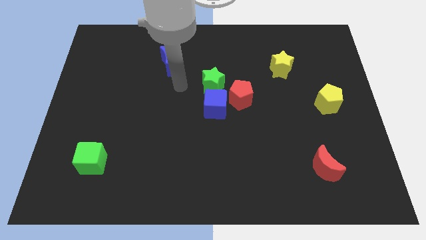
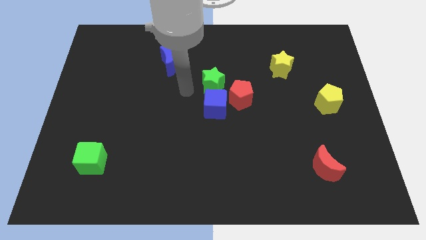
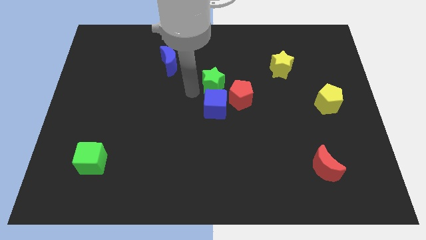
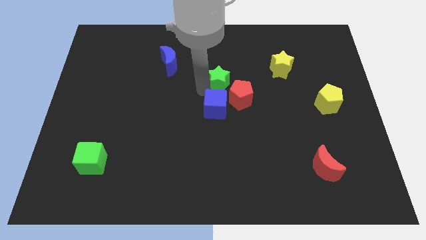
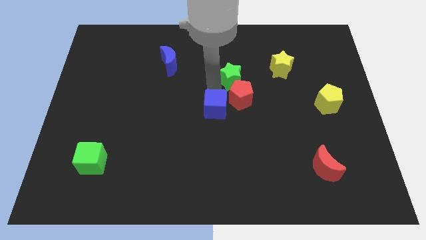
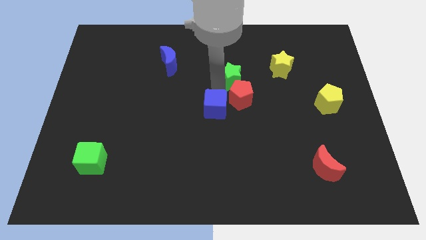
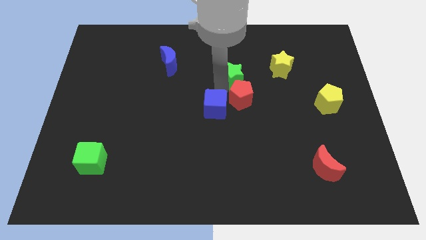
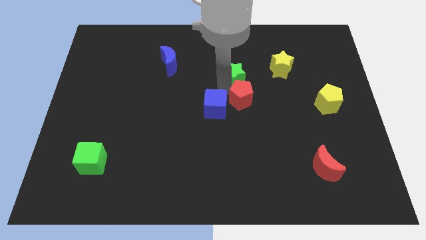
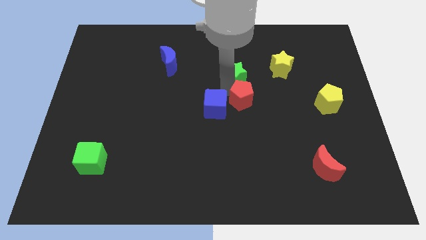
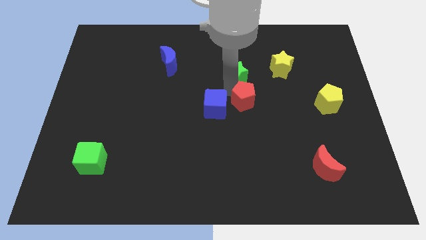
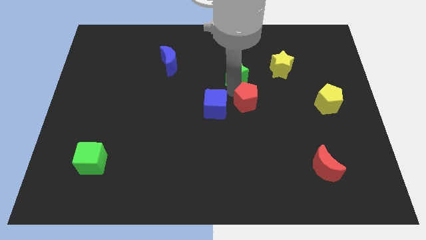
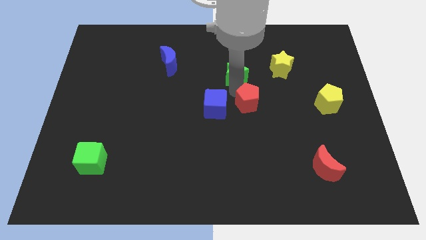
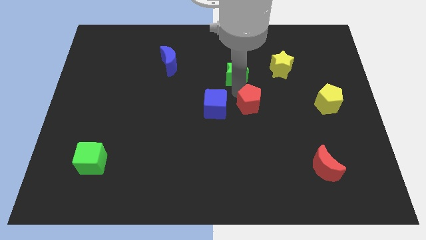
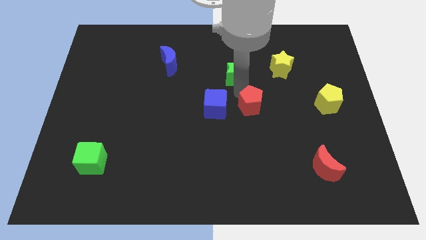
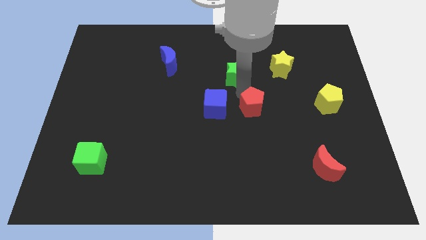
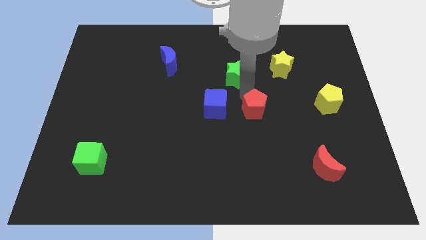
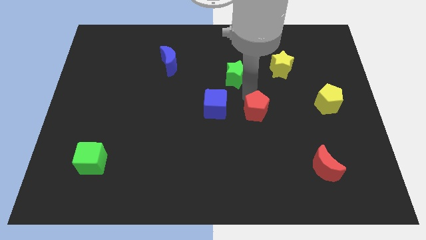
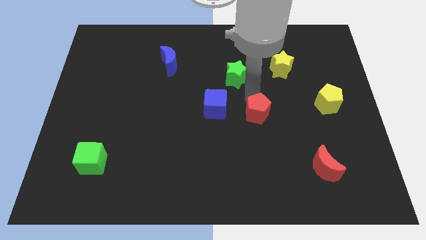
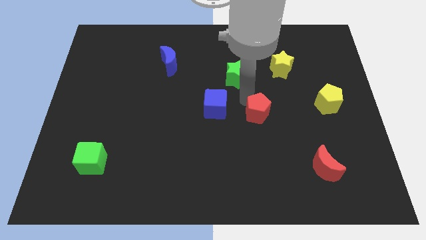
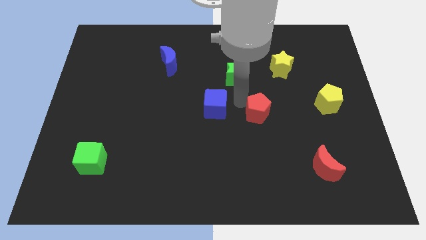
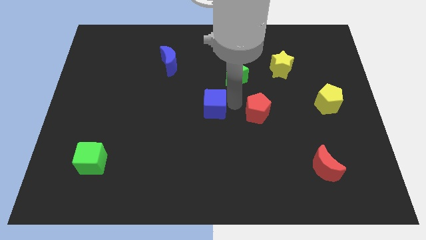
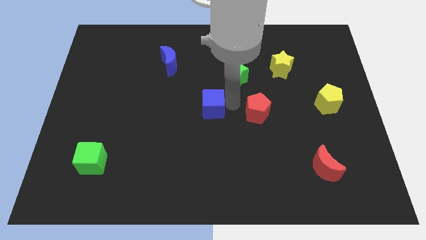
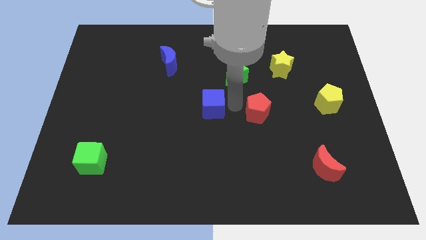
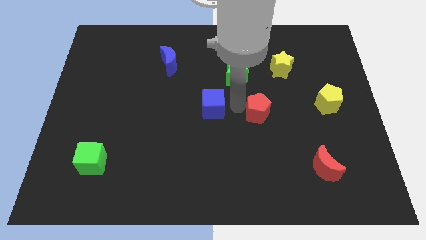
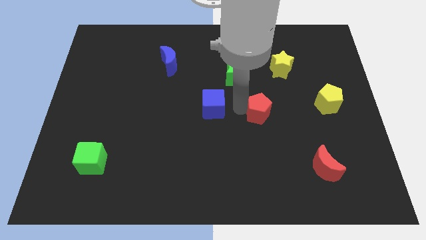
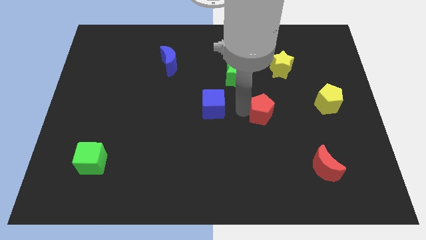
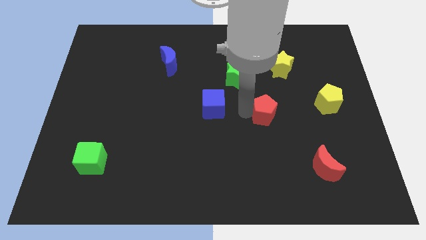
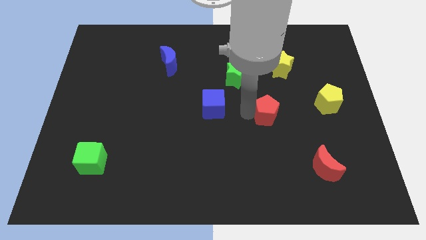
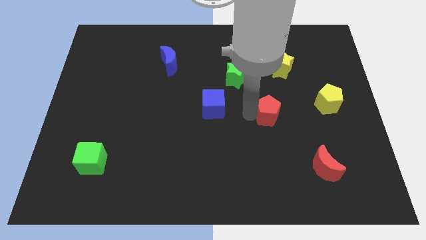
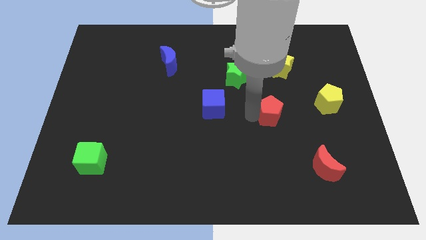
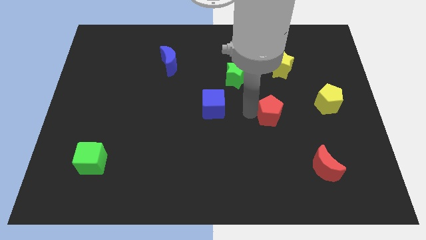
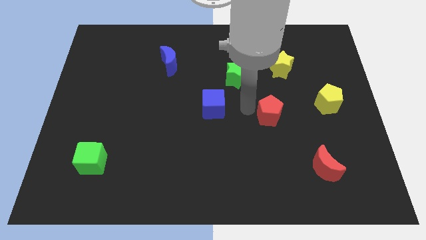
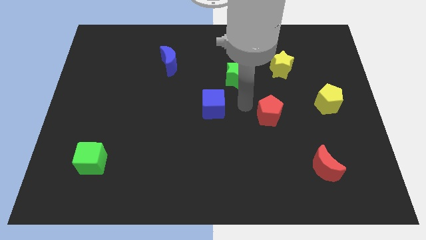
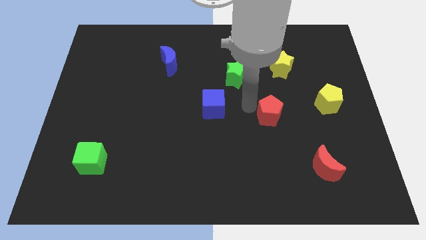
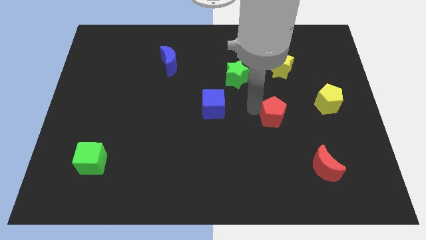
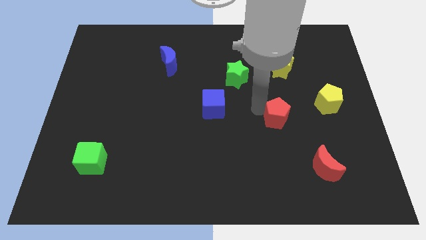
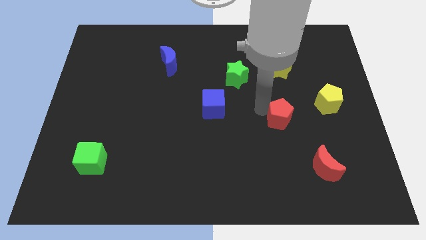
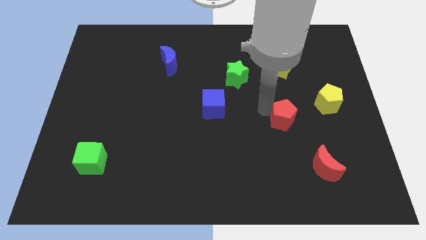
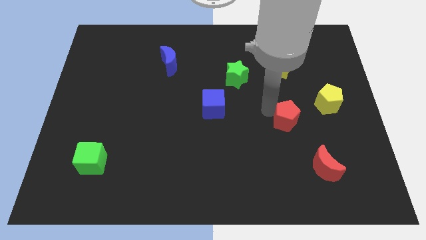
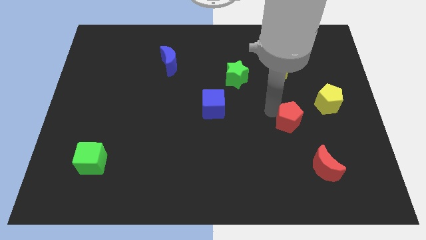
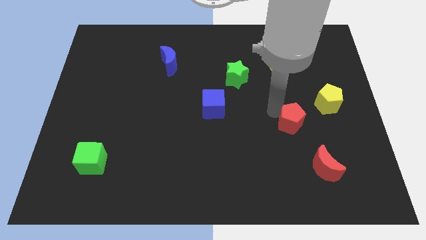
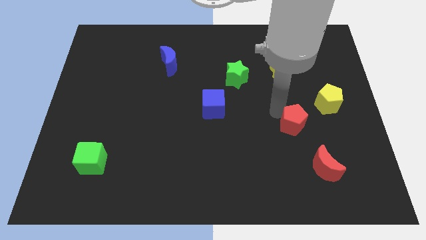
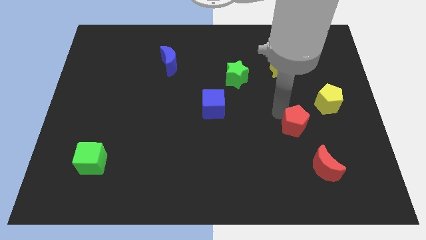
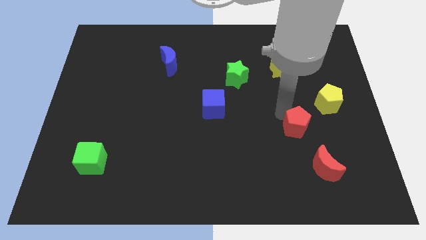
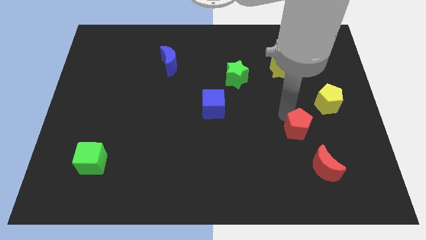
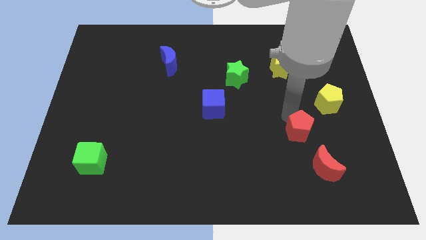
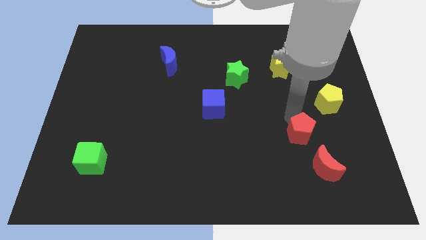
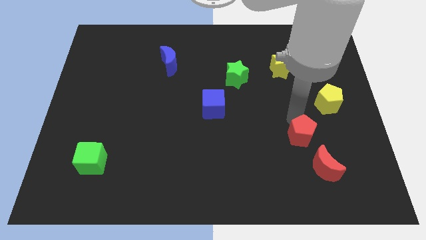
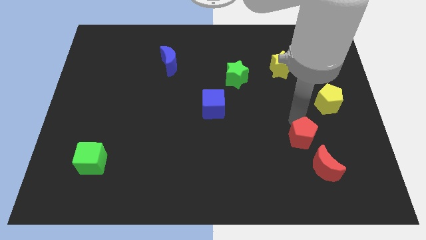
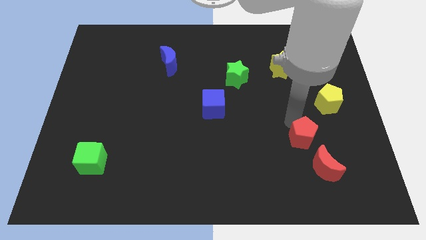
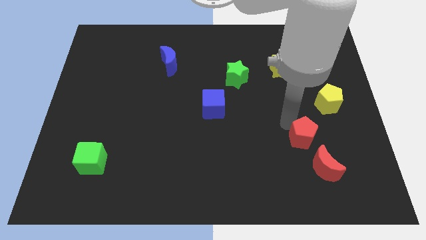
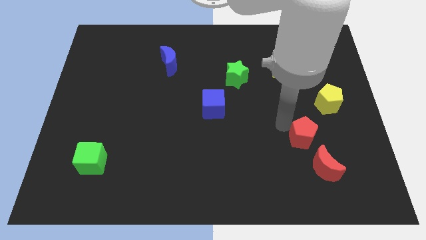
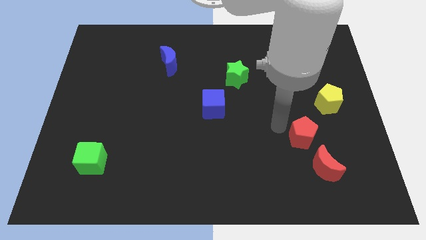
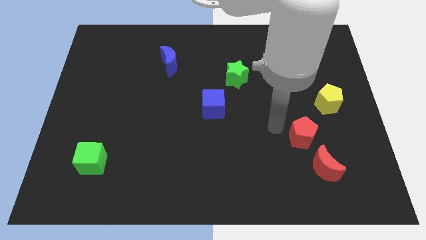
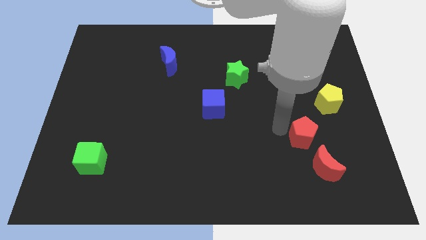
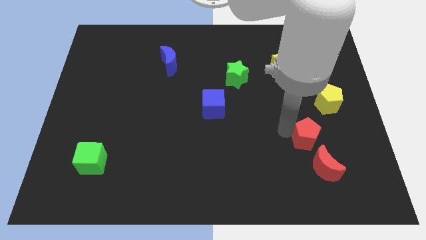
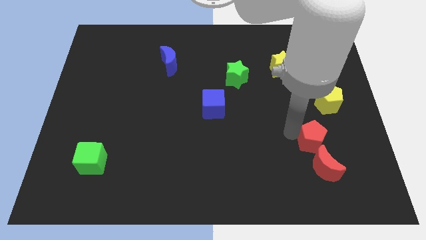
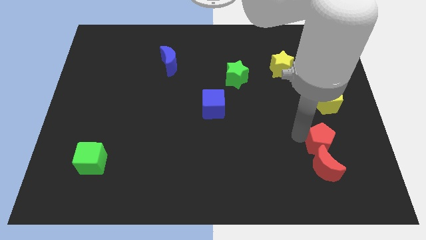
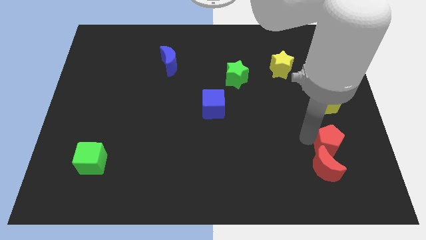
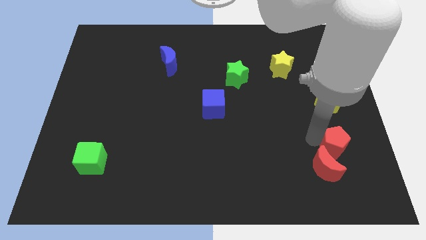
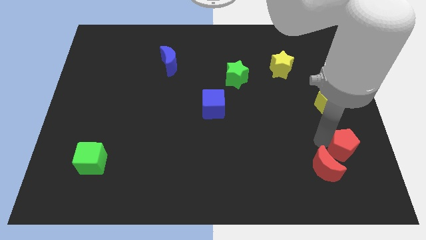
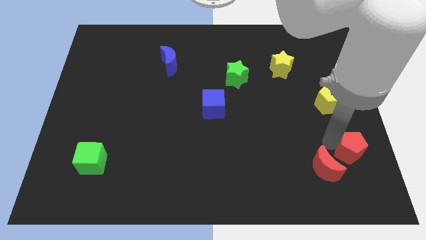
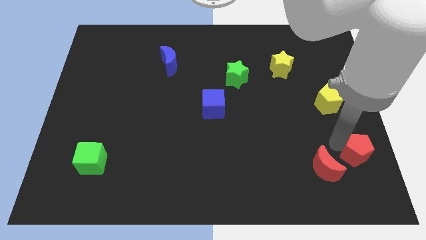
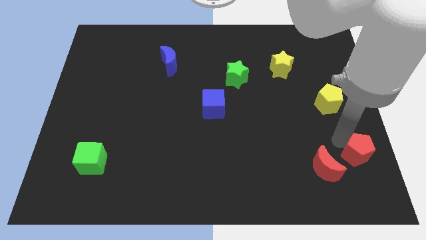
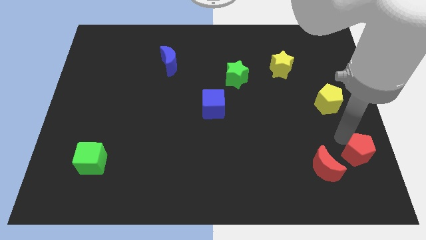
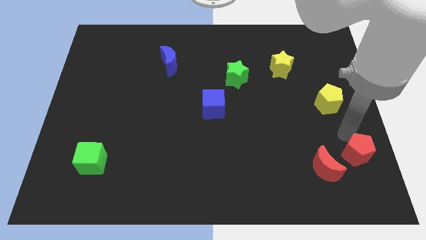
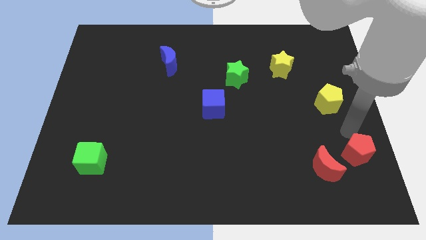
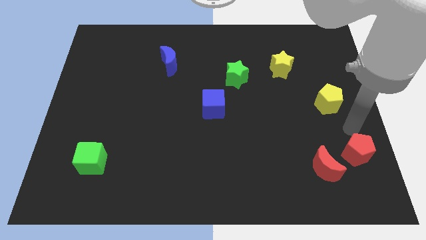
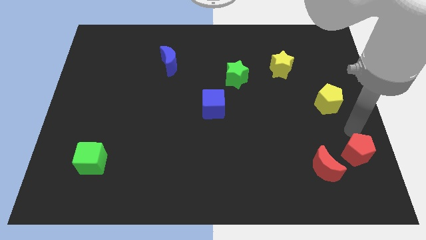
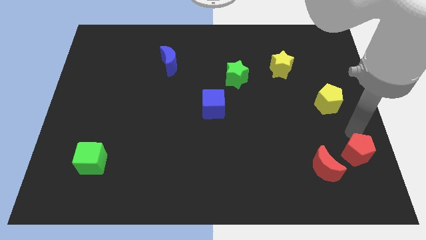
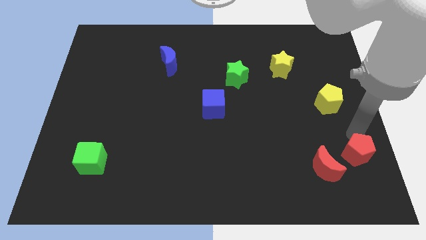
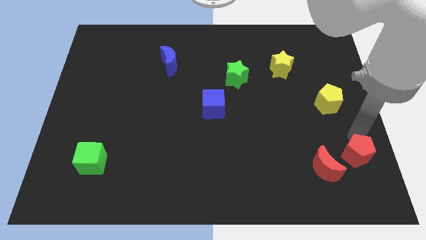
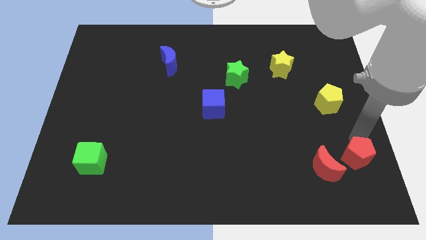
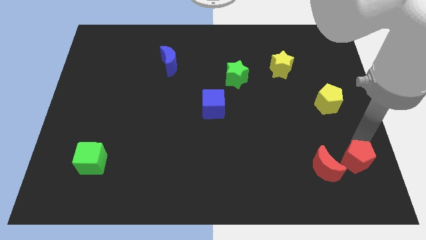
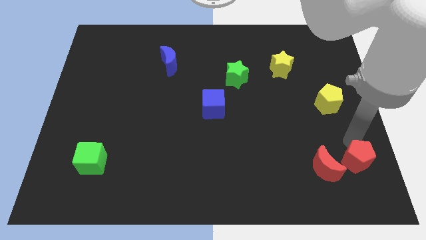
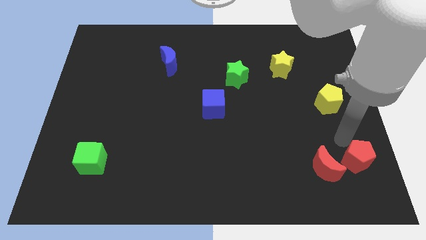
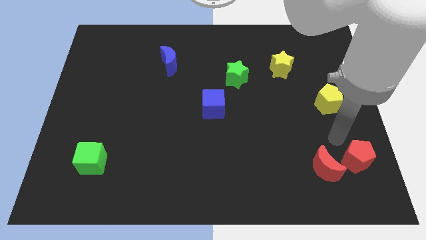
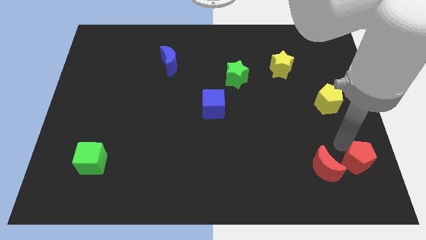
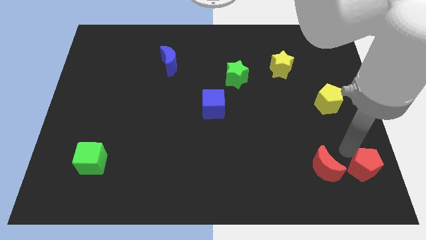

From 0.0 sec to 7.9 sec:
slide the red pentagon to the bottom right of the board
